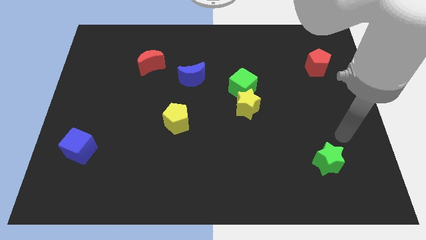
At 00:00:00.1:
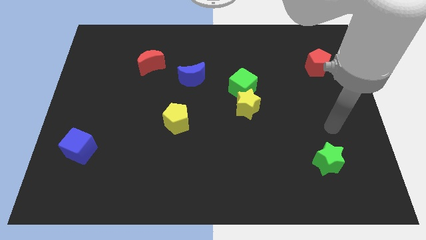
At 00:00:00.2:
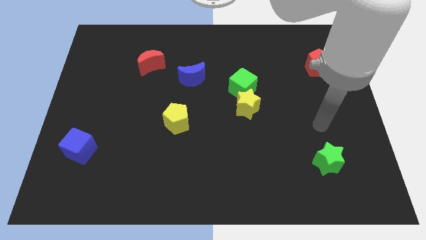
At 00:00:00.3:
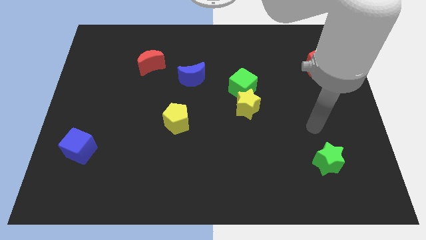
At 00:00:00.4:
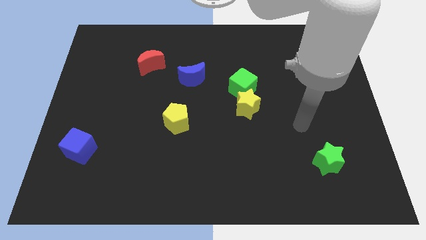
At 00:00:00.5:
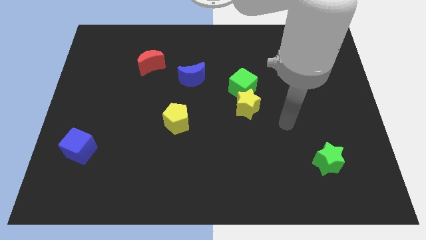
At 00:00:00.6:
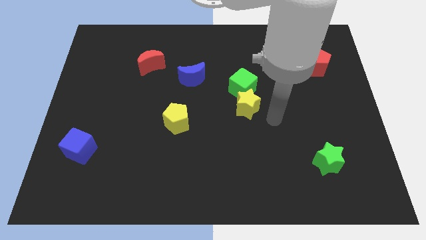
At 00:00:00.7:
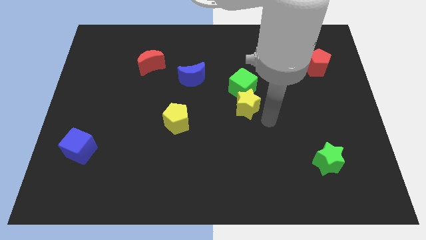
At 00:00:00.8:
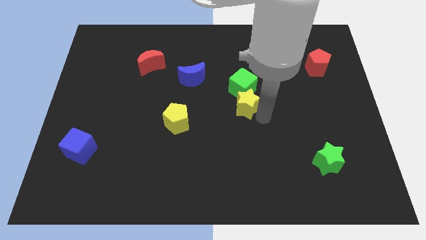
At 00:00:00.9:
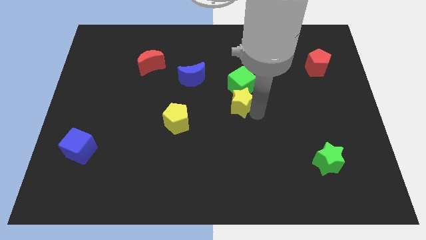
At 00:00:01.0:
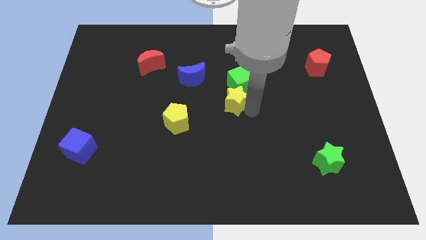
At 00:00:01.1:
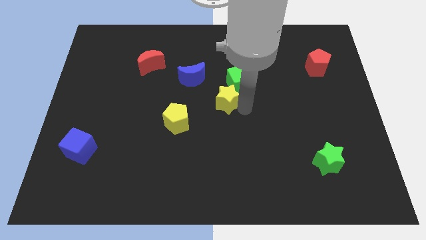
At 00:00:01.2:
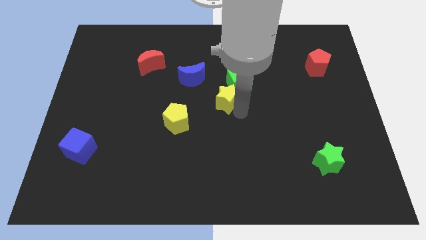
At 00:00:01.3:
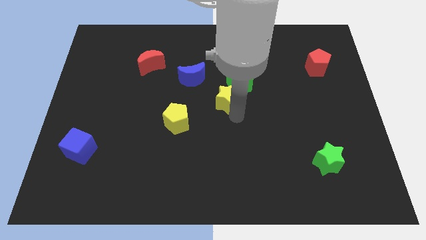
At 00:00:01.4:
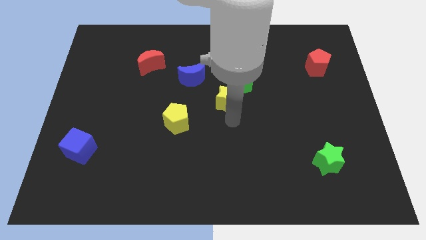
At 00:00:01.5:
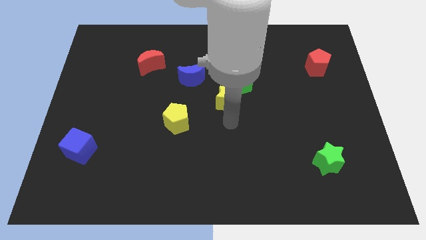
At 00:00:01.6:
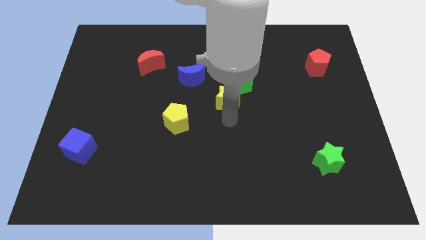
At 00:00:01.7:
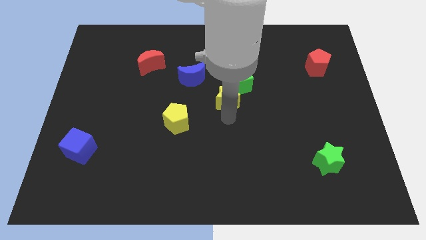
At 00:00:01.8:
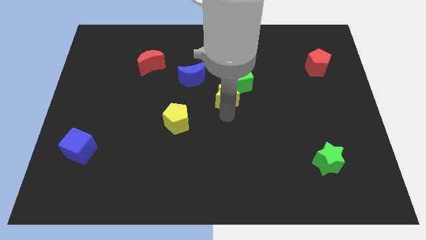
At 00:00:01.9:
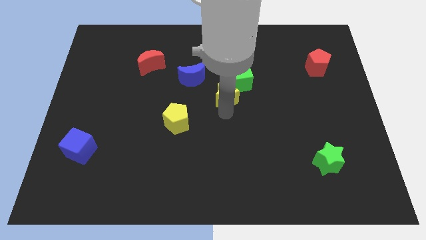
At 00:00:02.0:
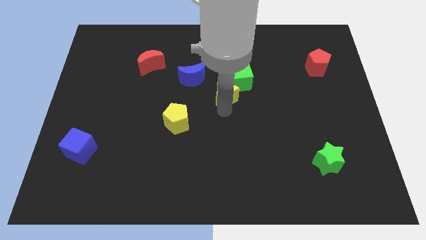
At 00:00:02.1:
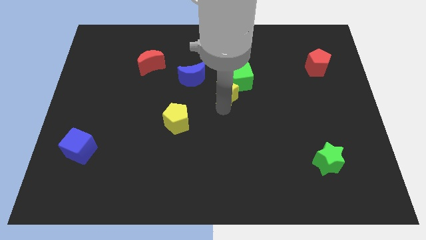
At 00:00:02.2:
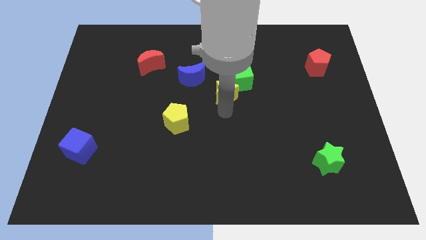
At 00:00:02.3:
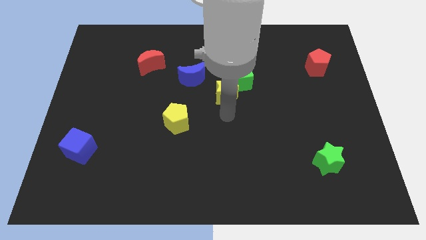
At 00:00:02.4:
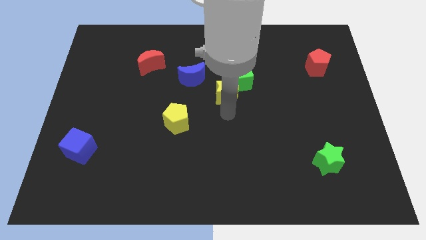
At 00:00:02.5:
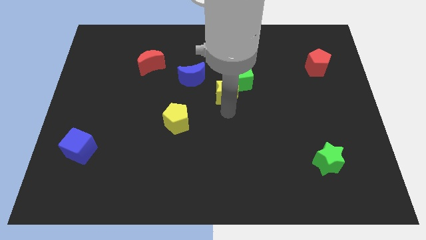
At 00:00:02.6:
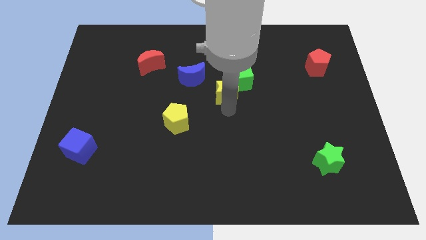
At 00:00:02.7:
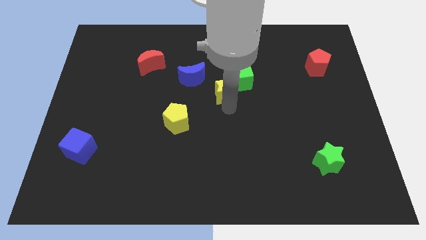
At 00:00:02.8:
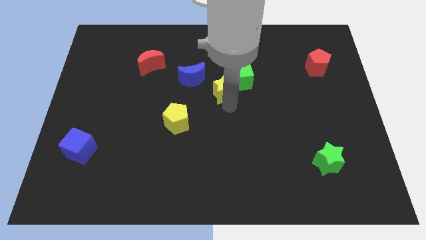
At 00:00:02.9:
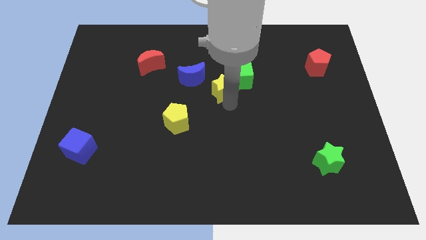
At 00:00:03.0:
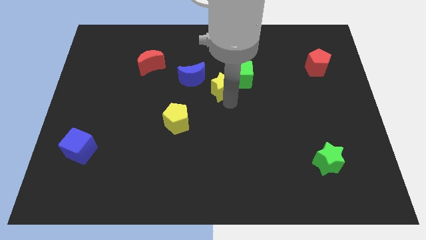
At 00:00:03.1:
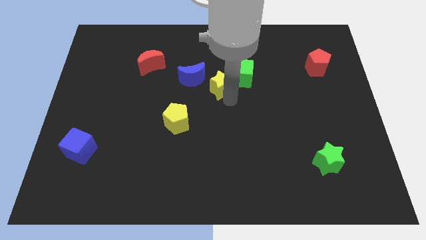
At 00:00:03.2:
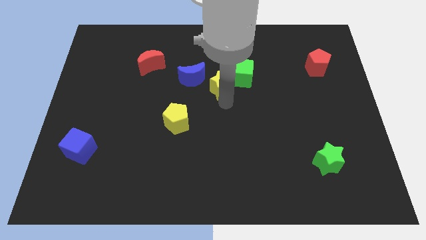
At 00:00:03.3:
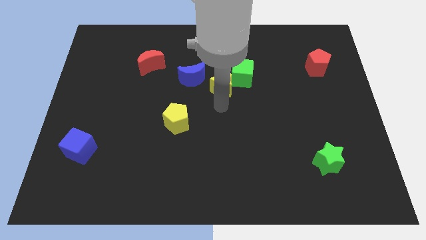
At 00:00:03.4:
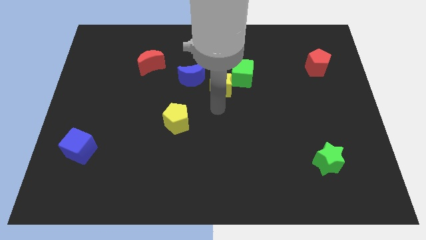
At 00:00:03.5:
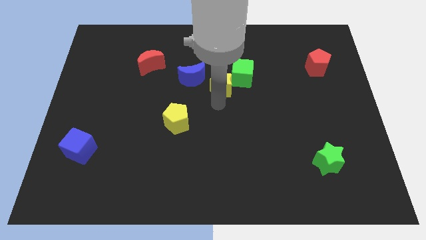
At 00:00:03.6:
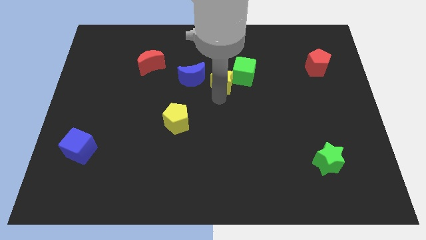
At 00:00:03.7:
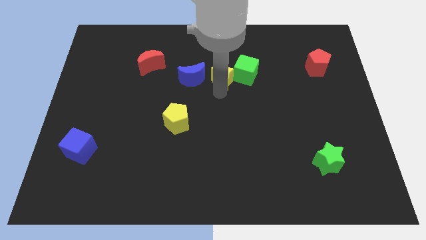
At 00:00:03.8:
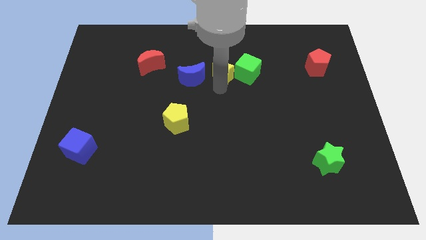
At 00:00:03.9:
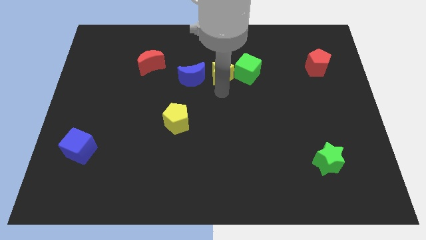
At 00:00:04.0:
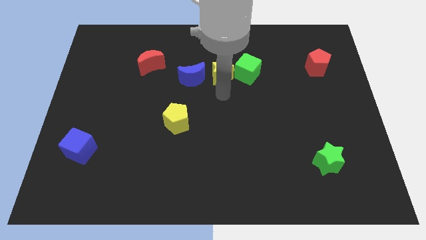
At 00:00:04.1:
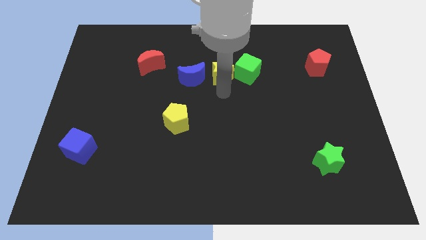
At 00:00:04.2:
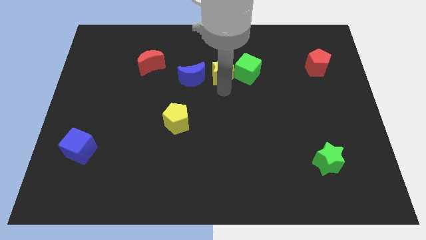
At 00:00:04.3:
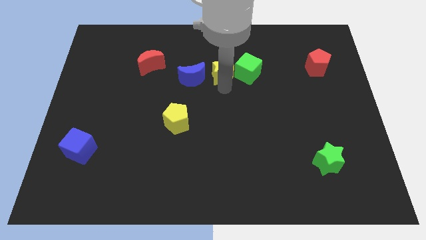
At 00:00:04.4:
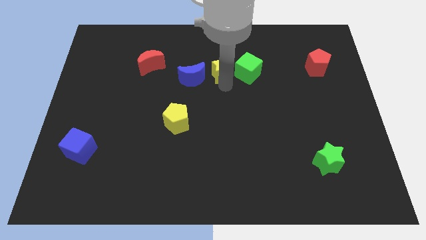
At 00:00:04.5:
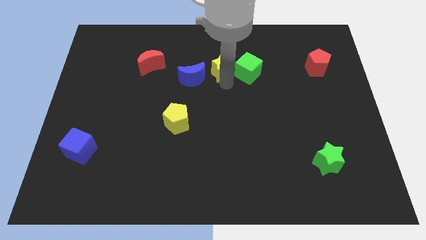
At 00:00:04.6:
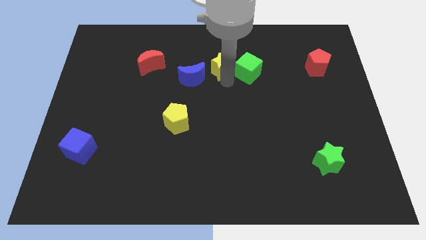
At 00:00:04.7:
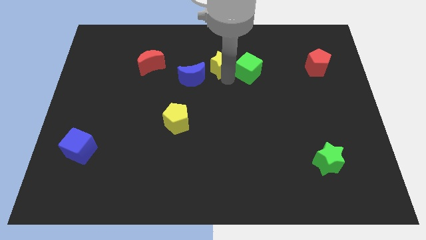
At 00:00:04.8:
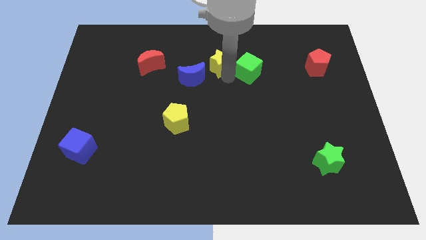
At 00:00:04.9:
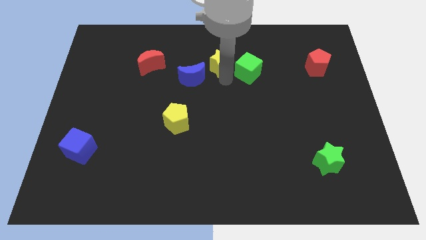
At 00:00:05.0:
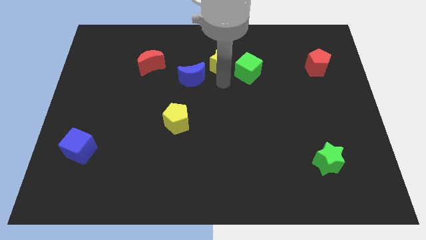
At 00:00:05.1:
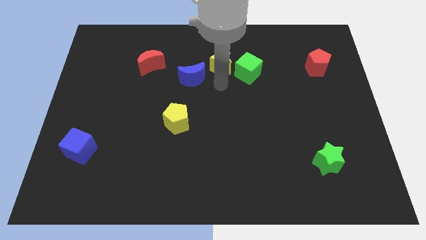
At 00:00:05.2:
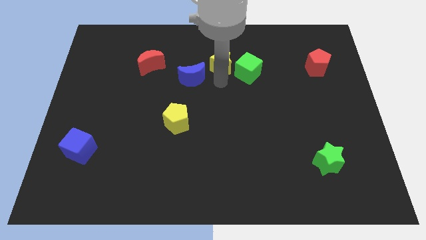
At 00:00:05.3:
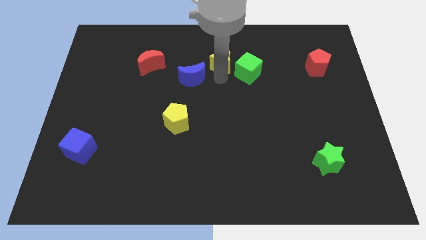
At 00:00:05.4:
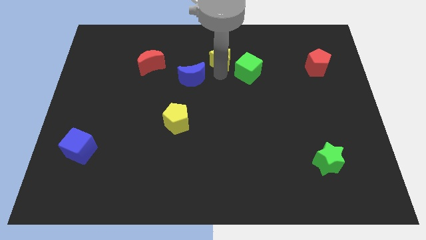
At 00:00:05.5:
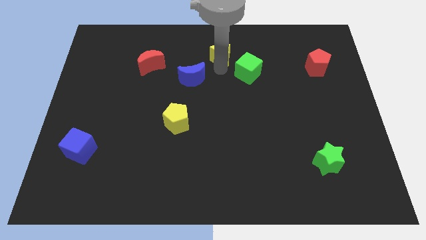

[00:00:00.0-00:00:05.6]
slide the yellow star to the top side

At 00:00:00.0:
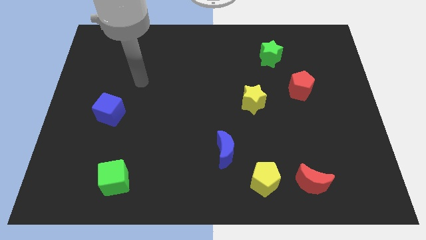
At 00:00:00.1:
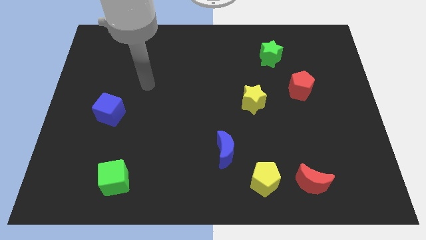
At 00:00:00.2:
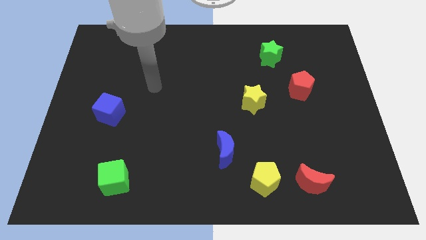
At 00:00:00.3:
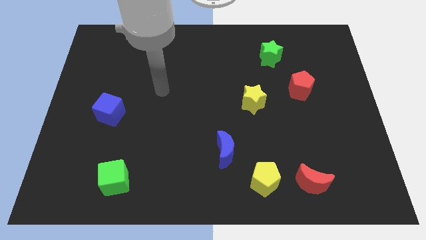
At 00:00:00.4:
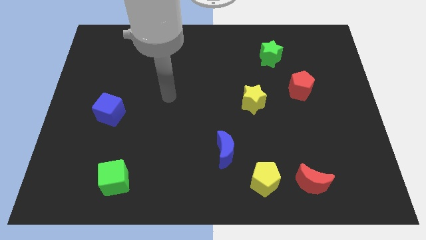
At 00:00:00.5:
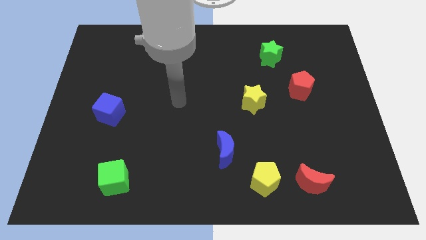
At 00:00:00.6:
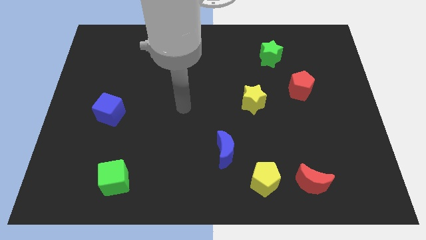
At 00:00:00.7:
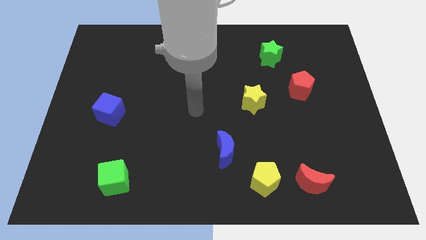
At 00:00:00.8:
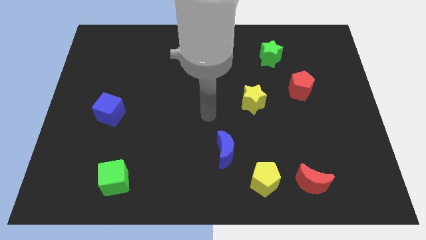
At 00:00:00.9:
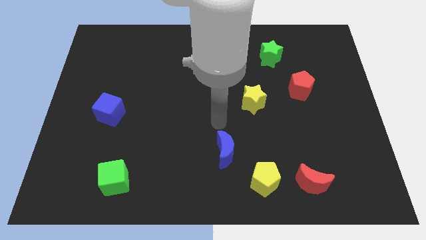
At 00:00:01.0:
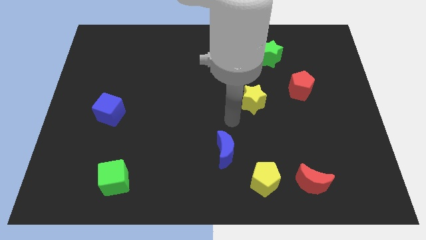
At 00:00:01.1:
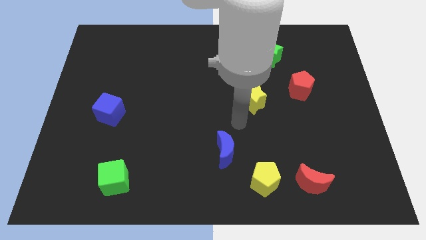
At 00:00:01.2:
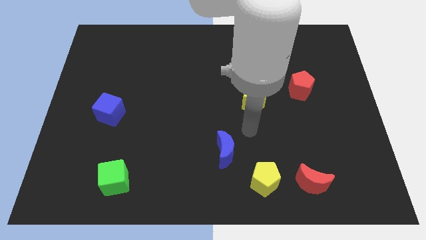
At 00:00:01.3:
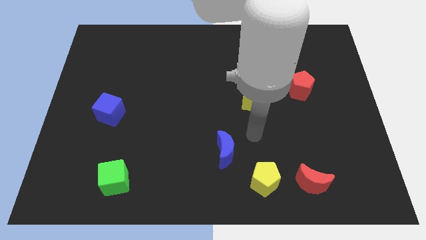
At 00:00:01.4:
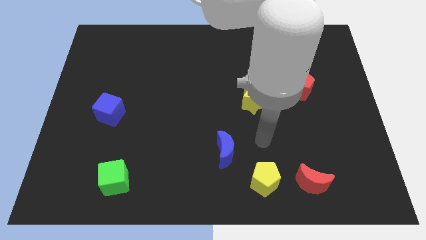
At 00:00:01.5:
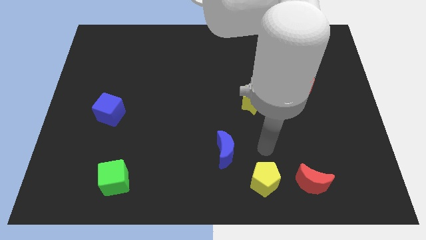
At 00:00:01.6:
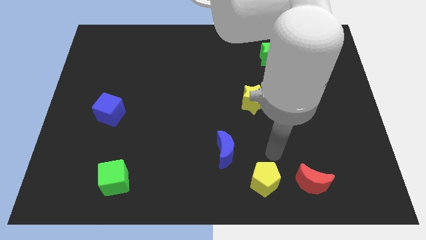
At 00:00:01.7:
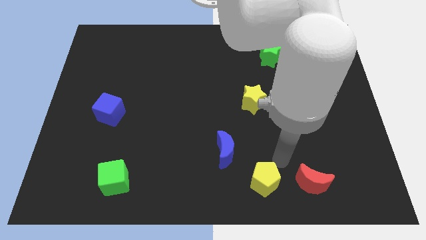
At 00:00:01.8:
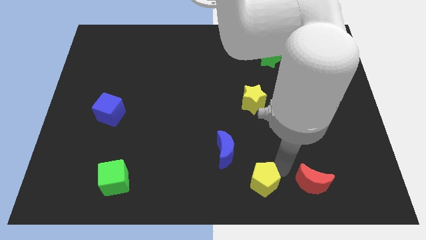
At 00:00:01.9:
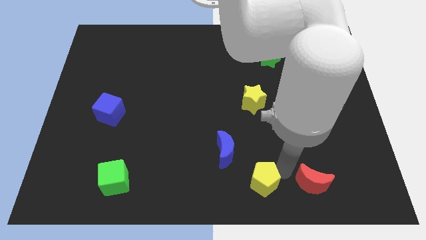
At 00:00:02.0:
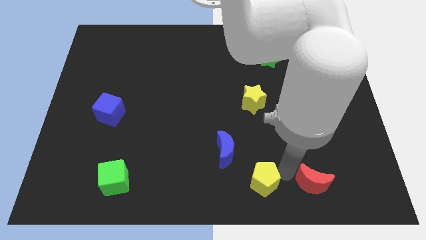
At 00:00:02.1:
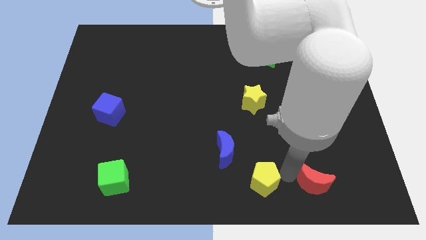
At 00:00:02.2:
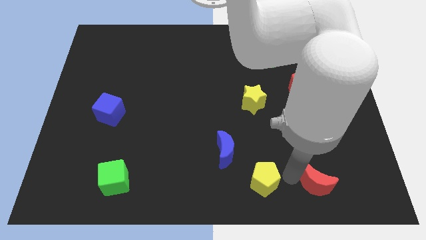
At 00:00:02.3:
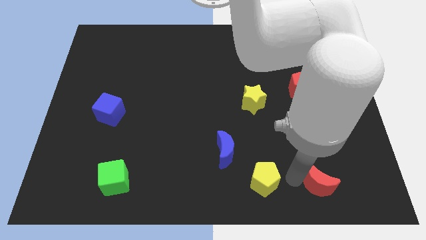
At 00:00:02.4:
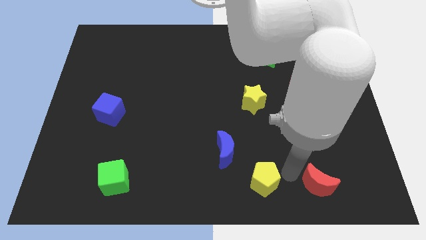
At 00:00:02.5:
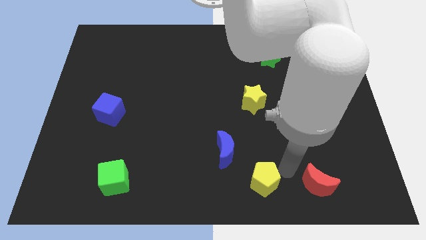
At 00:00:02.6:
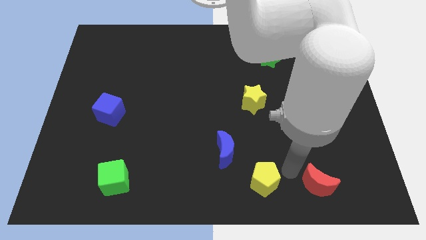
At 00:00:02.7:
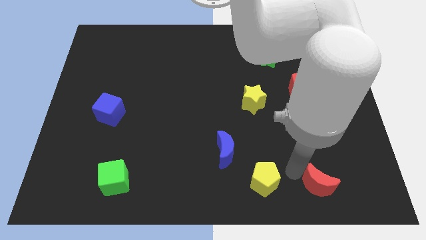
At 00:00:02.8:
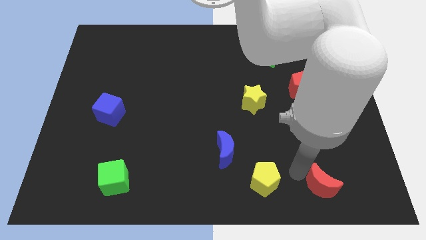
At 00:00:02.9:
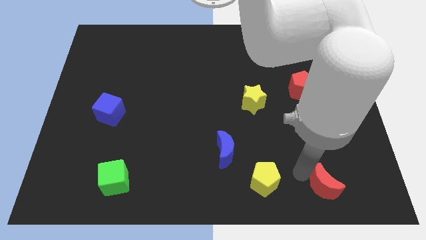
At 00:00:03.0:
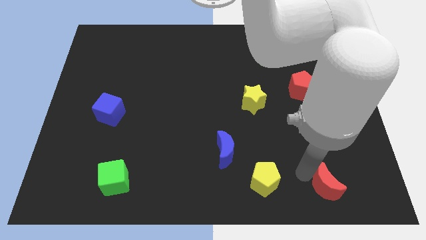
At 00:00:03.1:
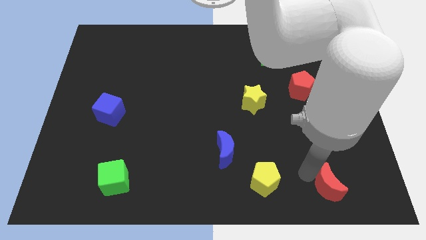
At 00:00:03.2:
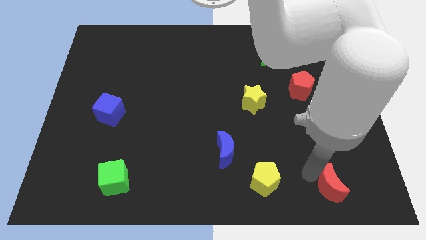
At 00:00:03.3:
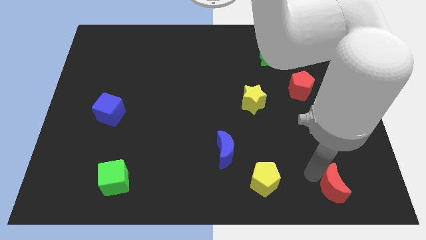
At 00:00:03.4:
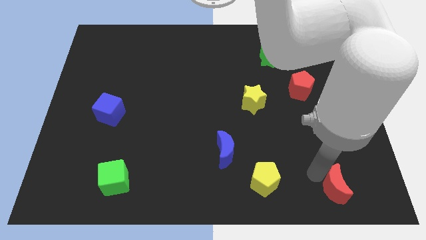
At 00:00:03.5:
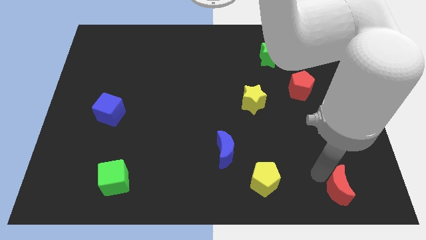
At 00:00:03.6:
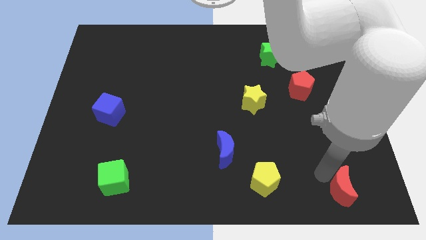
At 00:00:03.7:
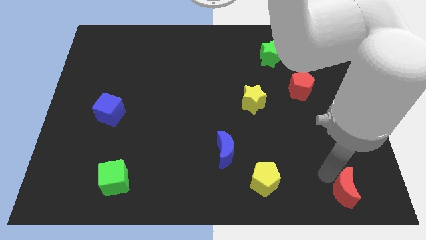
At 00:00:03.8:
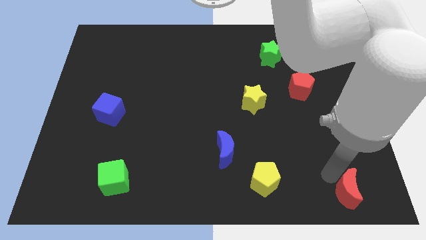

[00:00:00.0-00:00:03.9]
move the red moon to the bottom right corner
